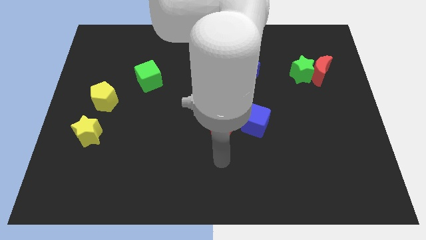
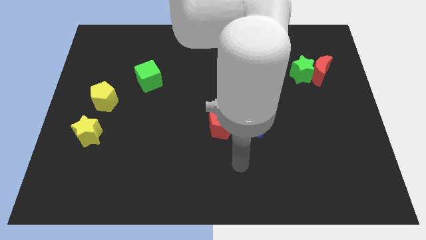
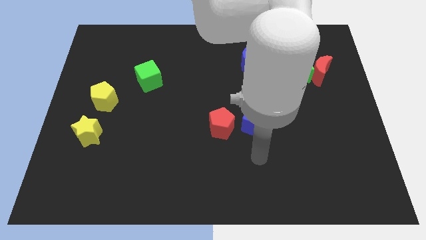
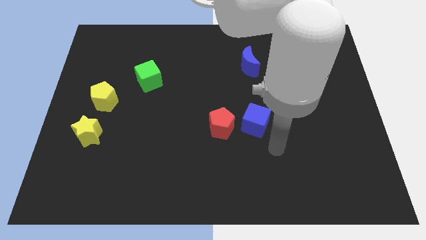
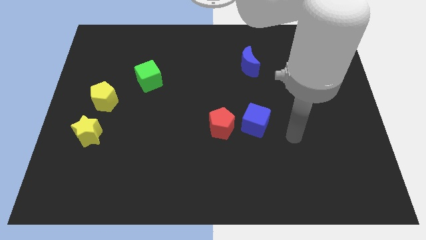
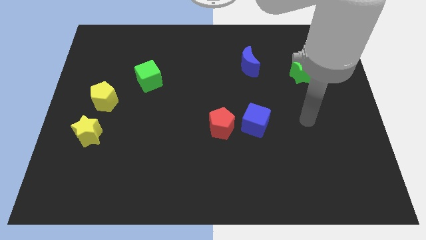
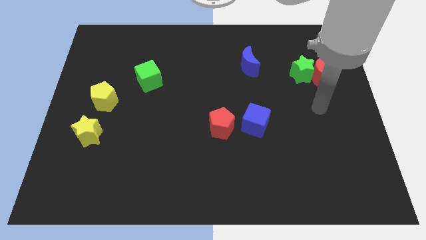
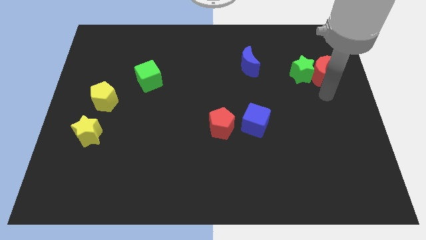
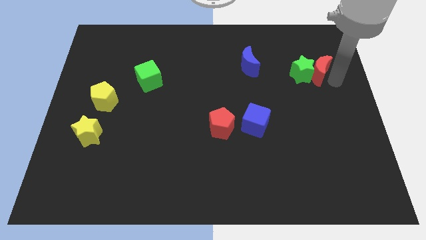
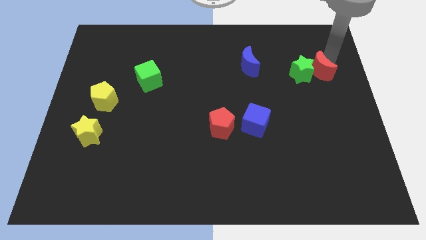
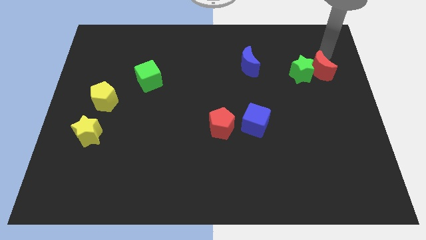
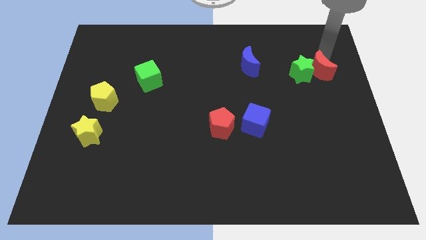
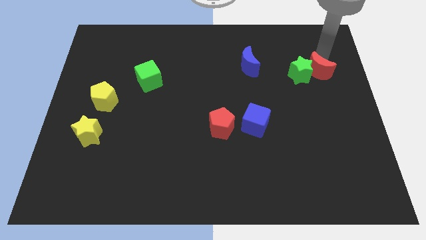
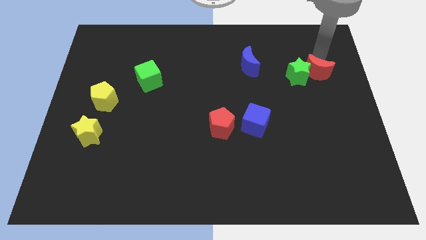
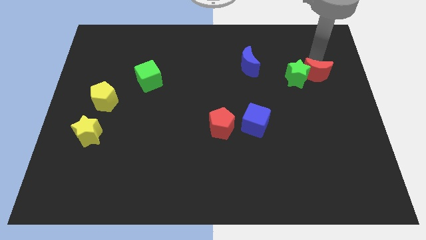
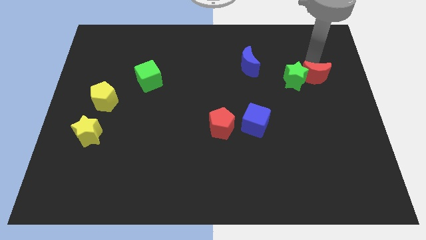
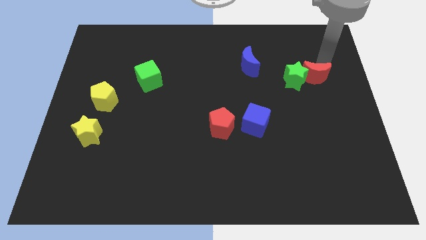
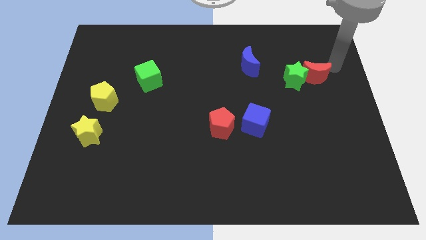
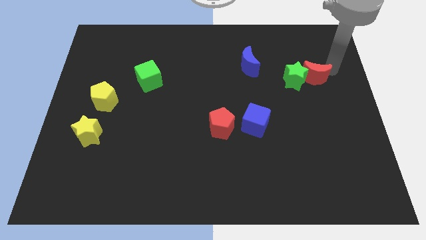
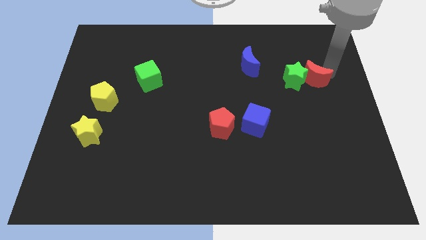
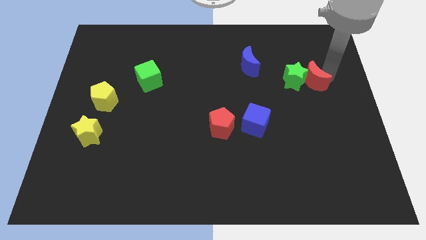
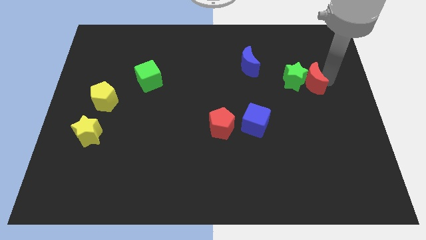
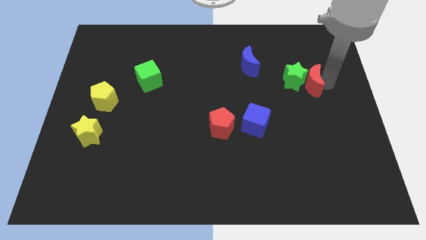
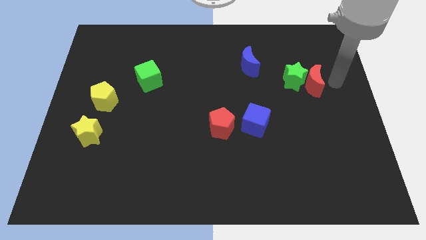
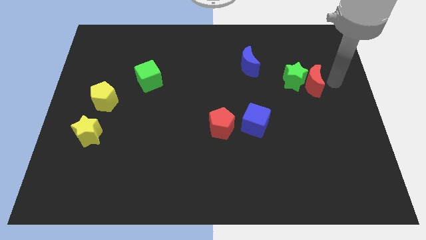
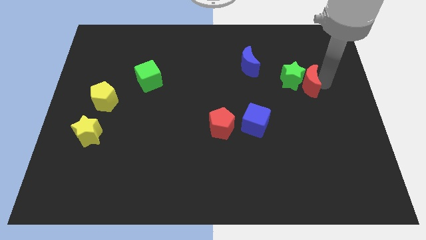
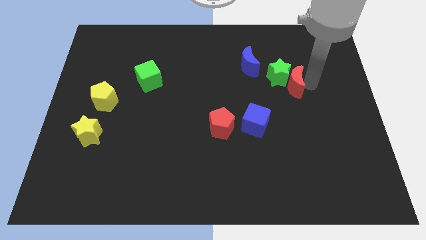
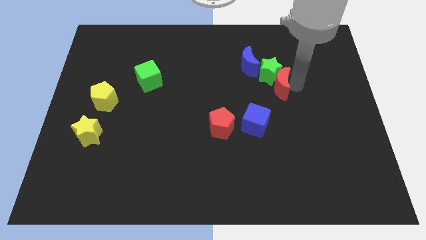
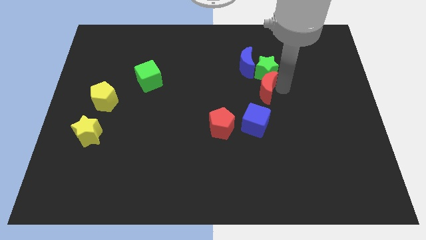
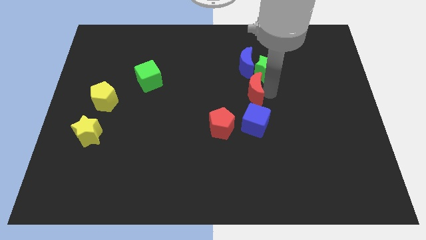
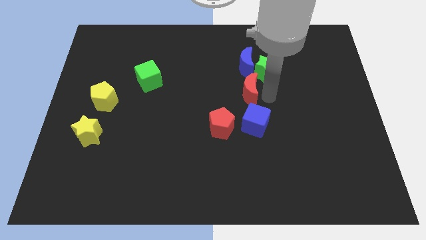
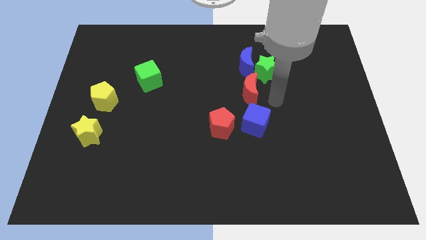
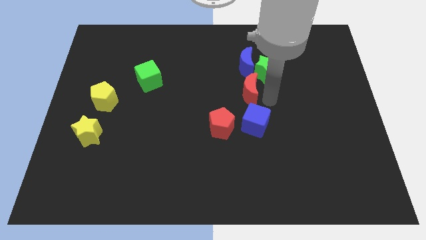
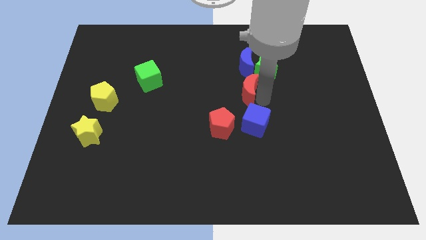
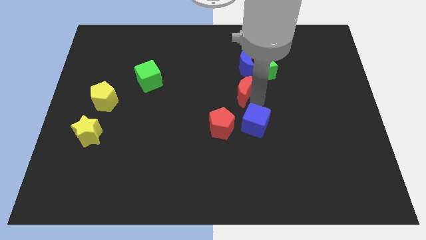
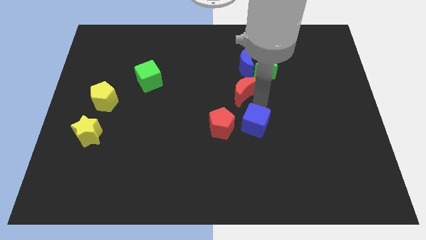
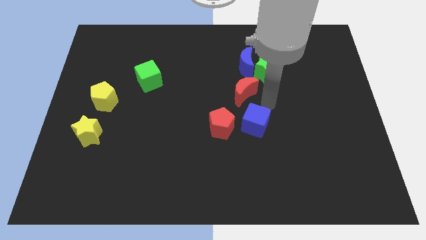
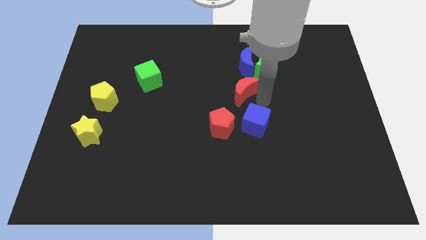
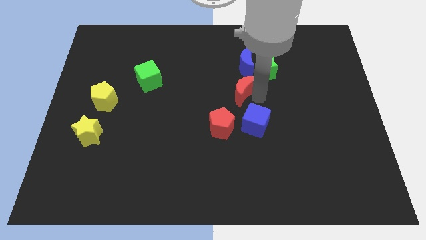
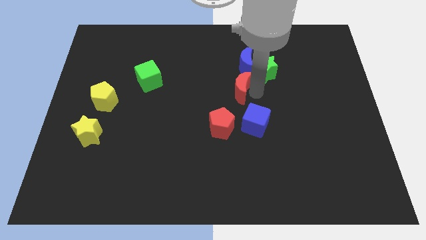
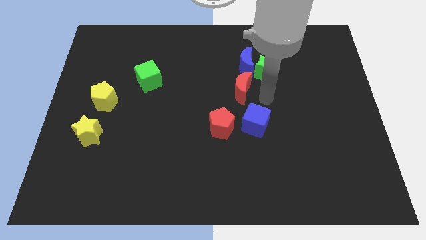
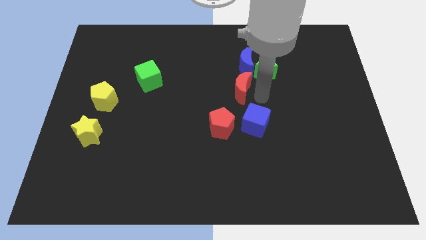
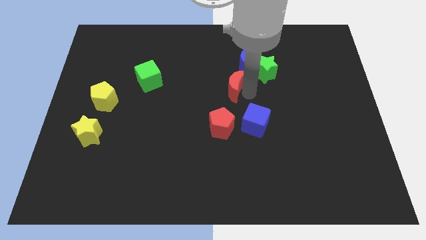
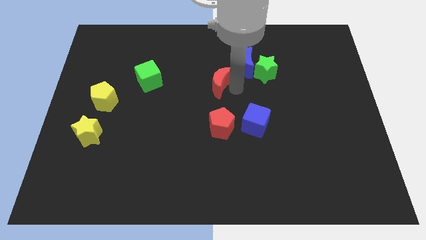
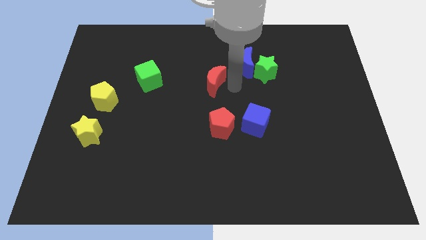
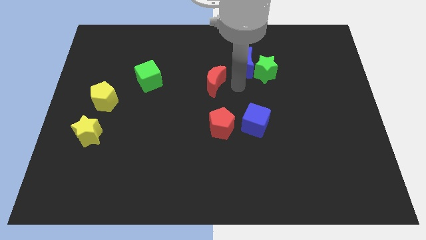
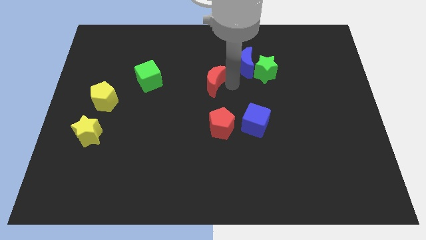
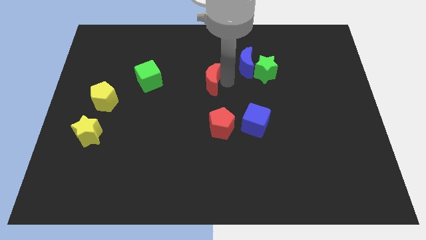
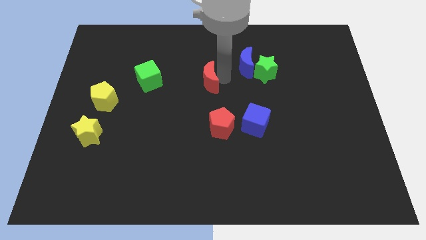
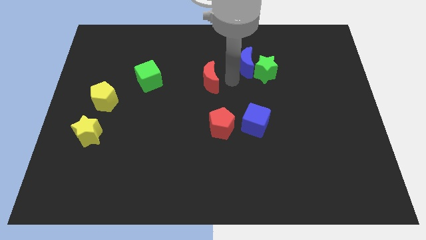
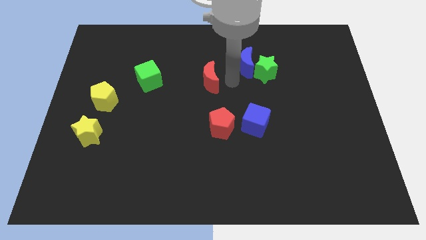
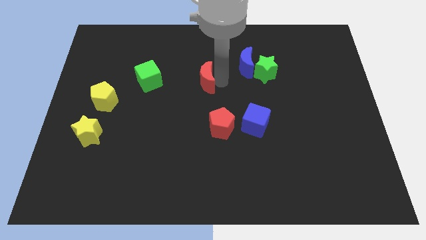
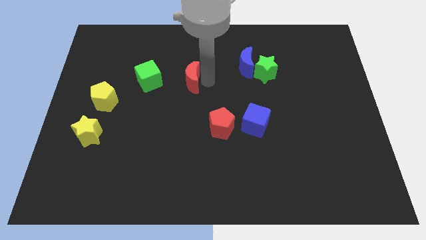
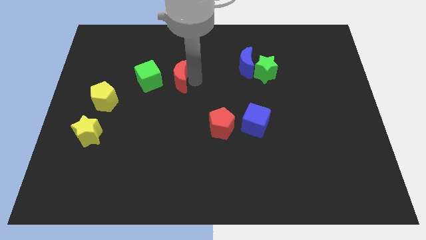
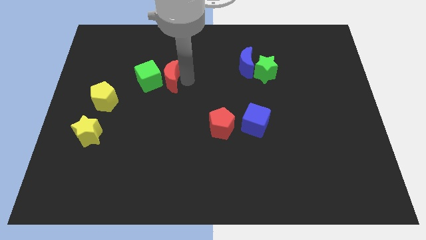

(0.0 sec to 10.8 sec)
move the red moon towards the green cube

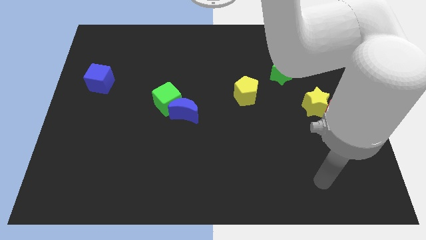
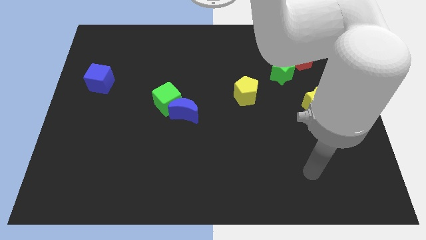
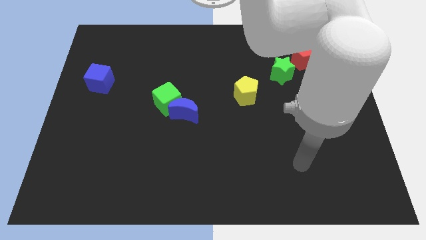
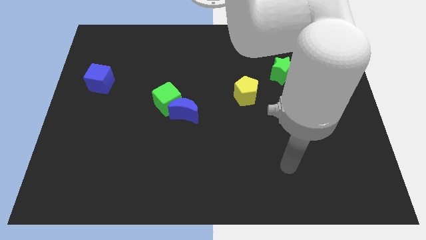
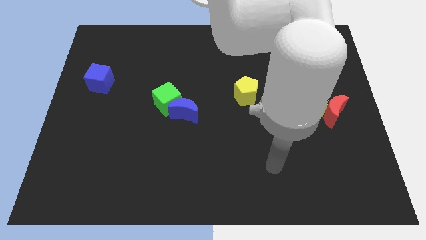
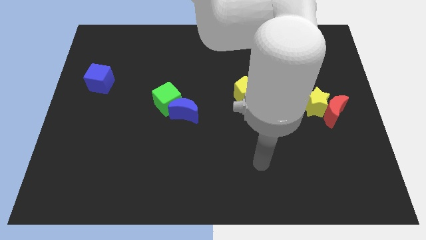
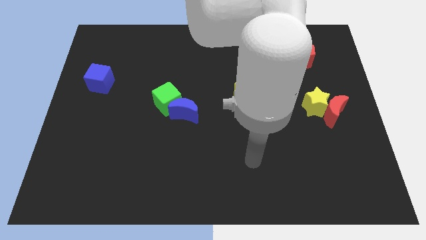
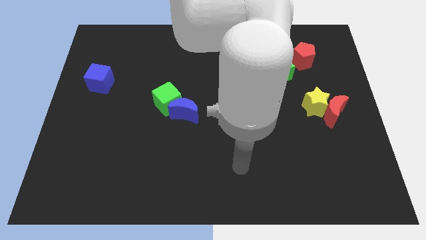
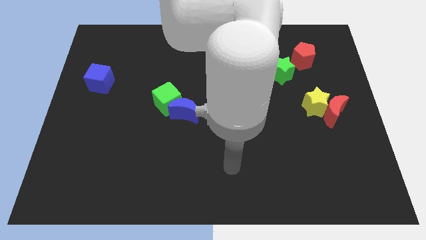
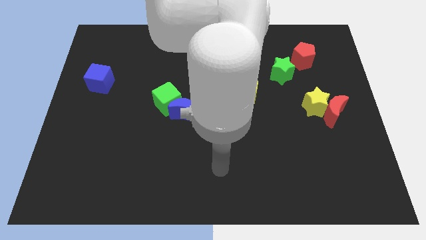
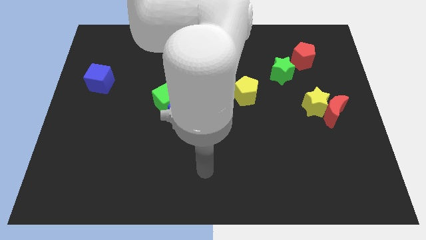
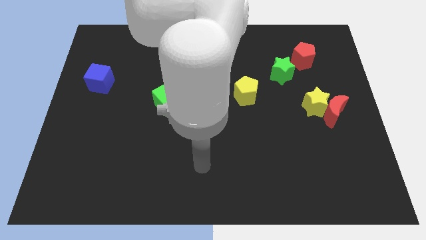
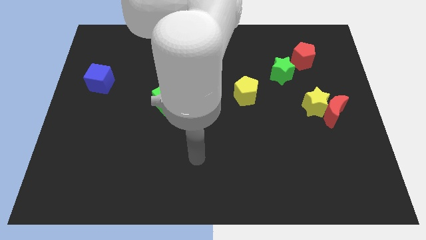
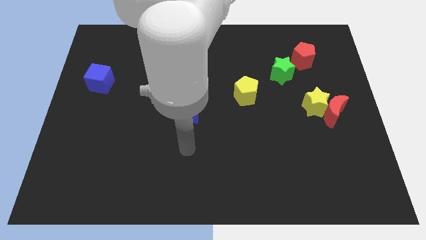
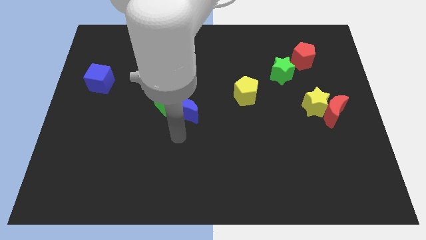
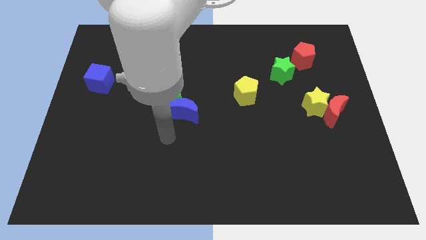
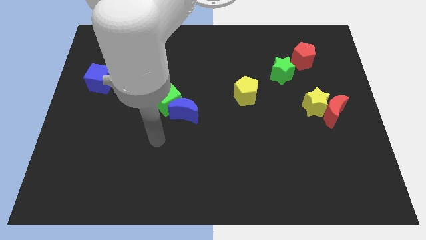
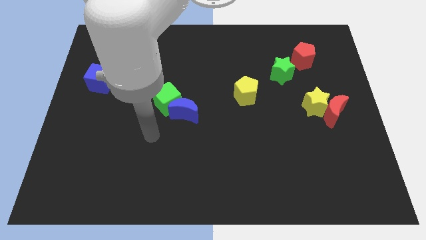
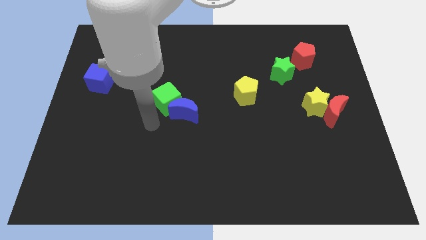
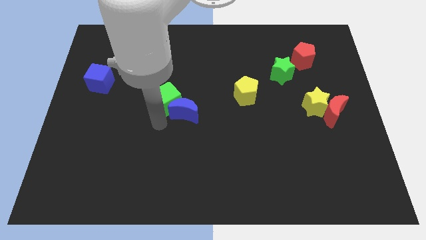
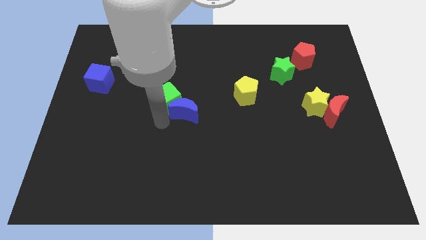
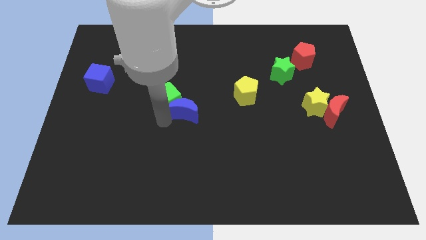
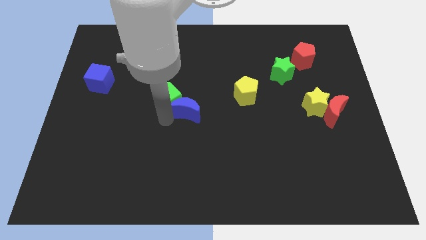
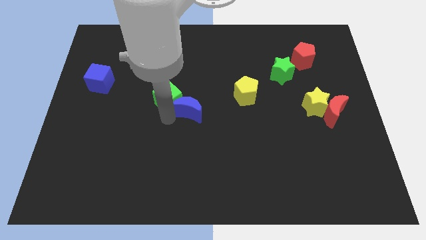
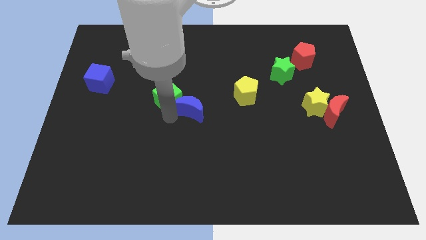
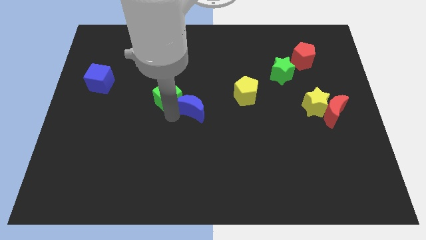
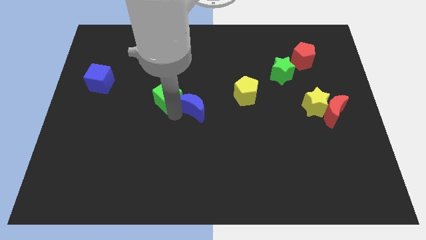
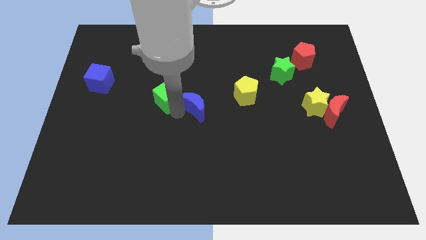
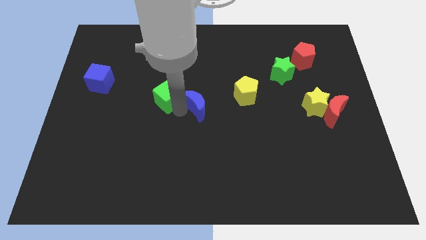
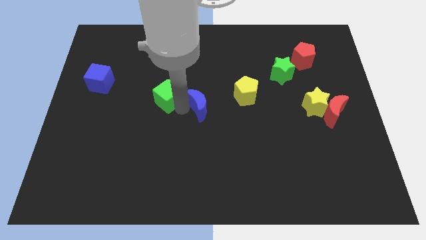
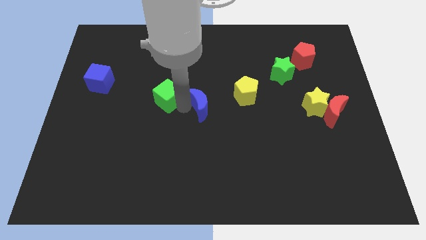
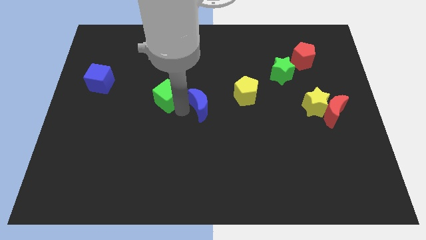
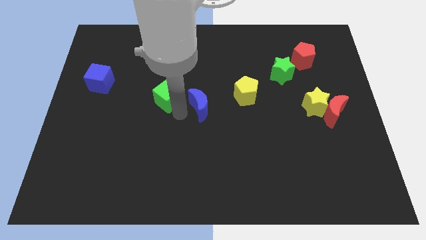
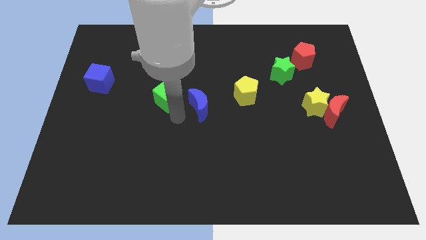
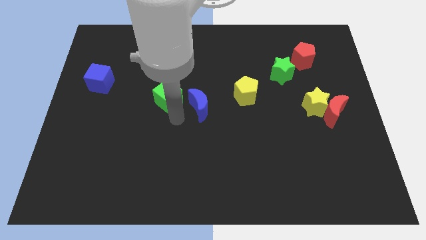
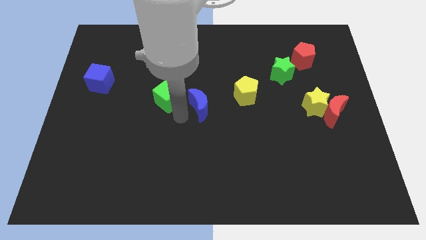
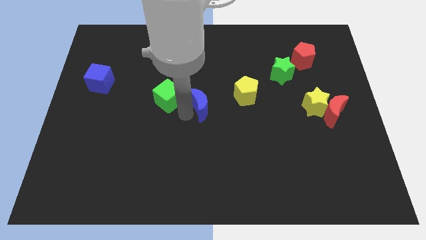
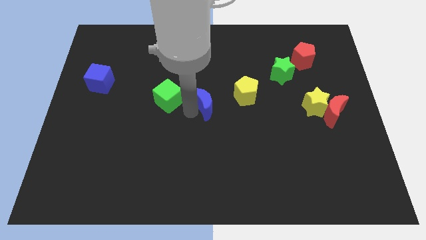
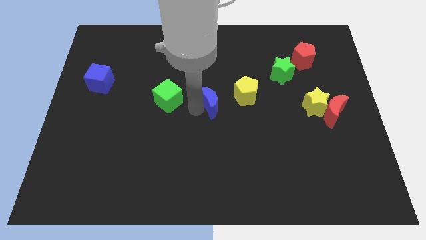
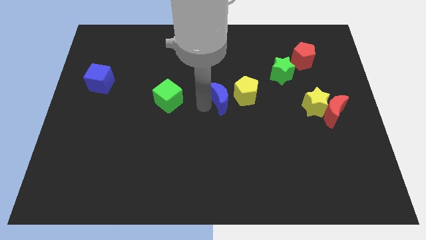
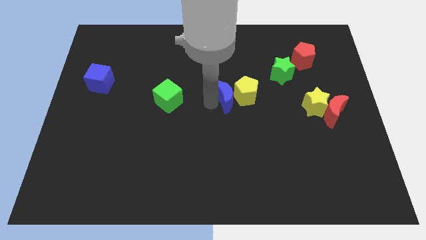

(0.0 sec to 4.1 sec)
put the blue moon to the yellow pentagon
